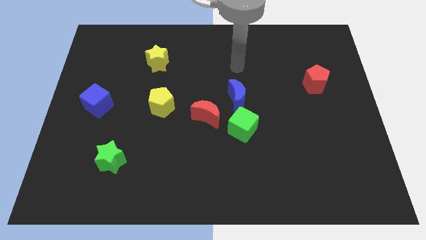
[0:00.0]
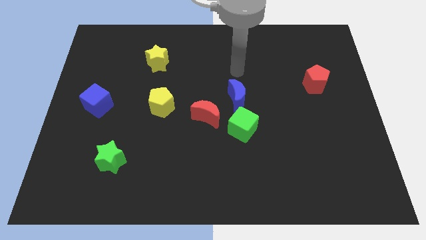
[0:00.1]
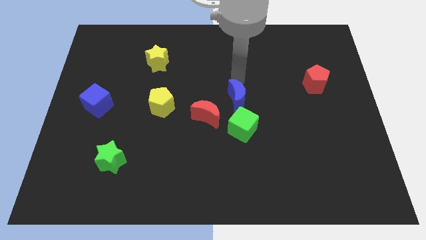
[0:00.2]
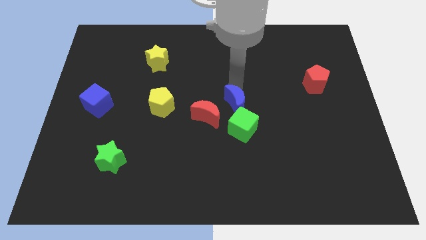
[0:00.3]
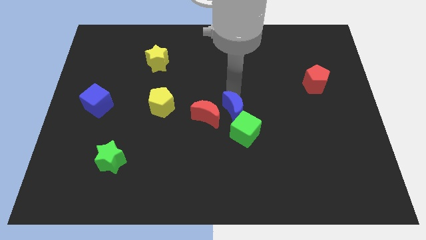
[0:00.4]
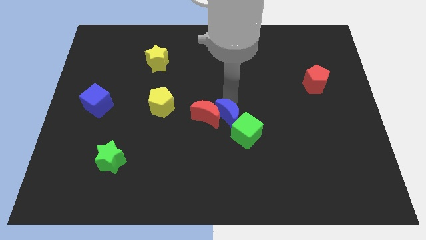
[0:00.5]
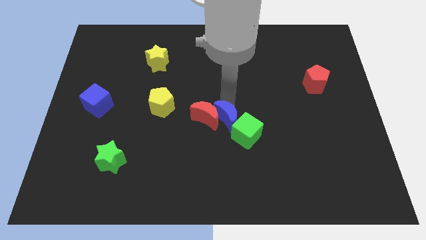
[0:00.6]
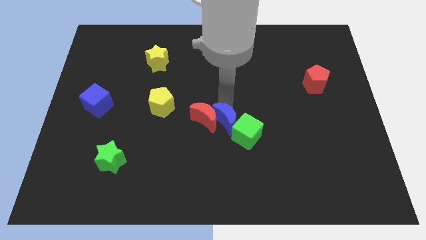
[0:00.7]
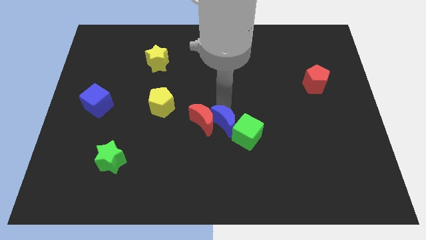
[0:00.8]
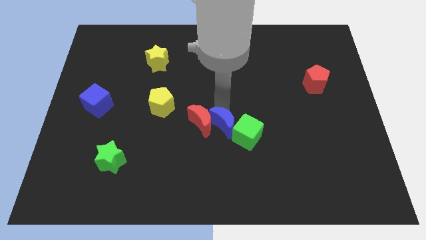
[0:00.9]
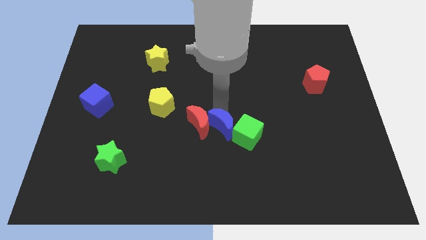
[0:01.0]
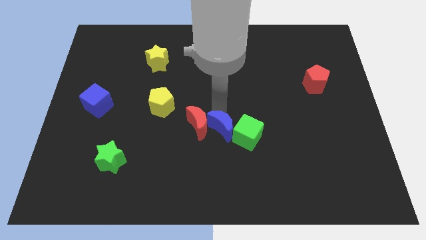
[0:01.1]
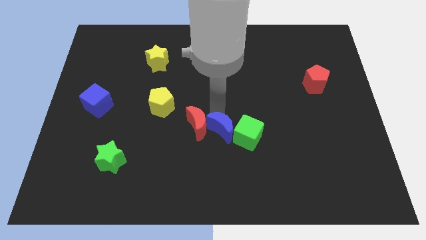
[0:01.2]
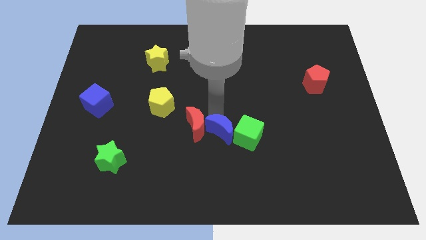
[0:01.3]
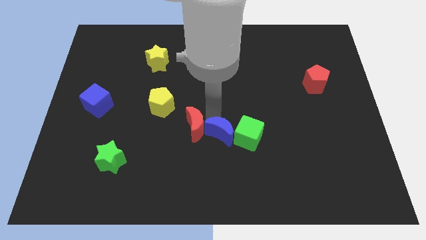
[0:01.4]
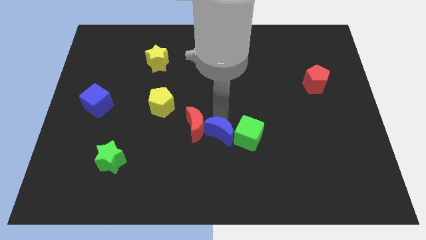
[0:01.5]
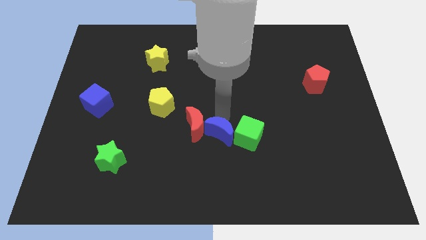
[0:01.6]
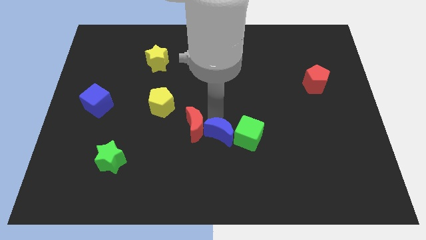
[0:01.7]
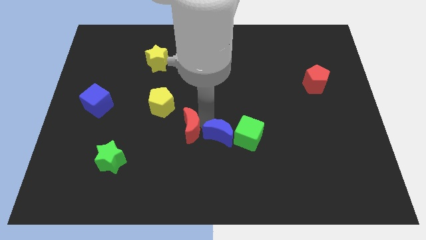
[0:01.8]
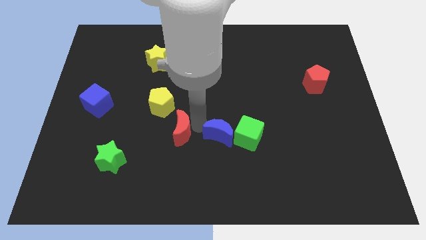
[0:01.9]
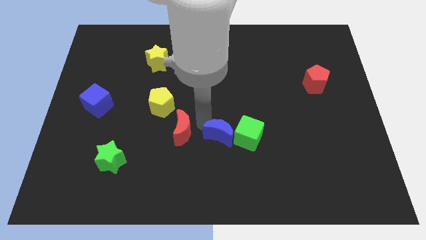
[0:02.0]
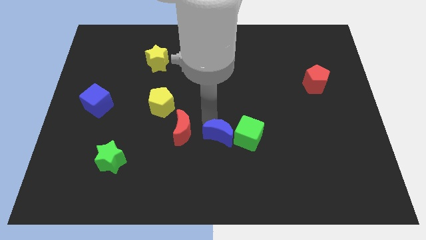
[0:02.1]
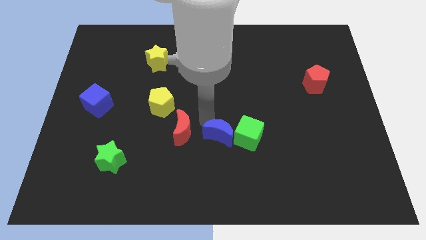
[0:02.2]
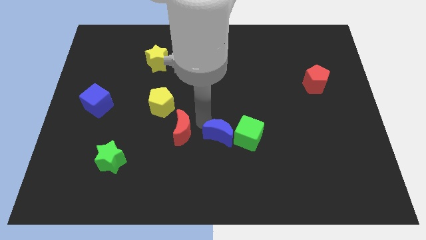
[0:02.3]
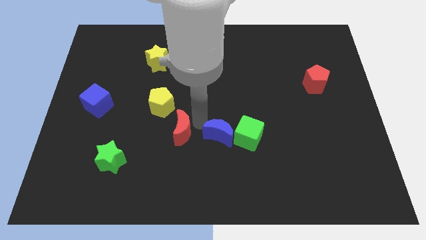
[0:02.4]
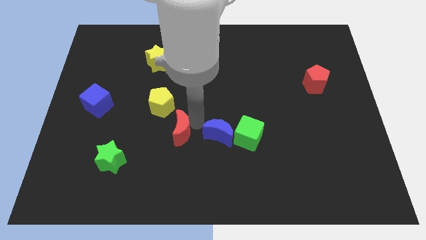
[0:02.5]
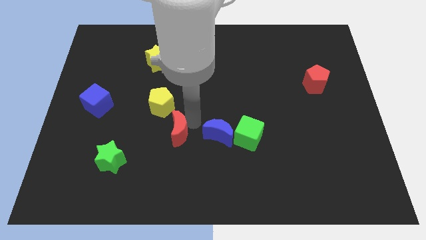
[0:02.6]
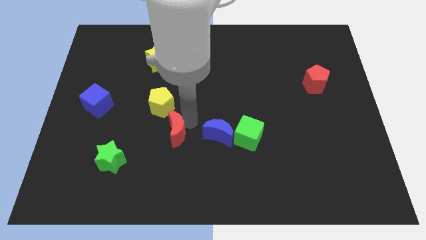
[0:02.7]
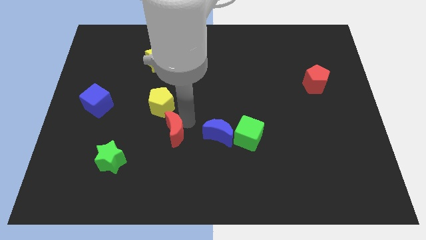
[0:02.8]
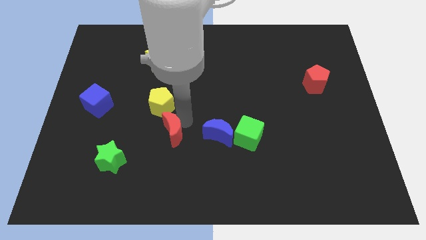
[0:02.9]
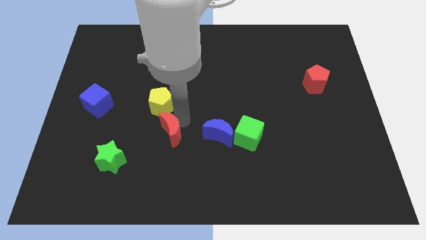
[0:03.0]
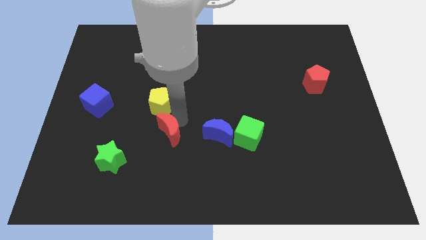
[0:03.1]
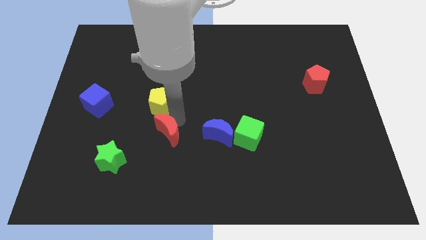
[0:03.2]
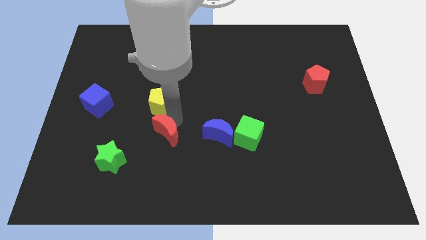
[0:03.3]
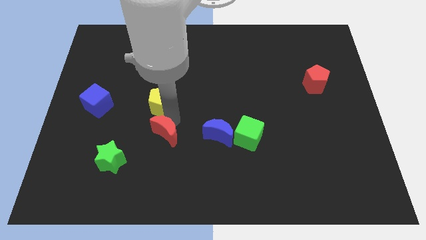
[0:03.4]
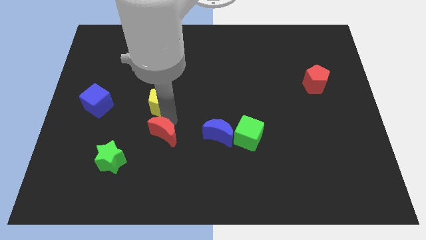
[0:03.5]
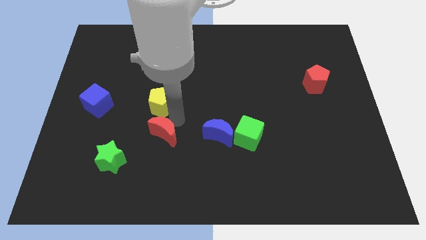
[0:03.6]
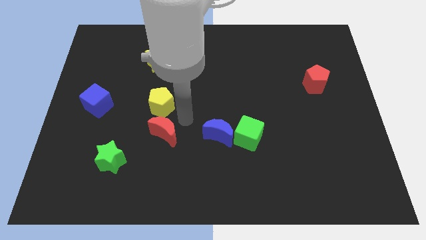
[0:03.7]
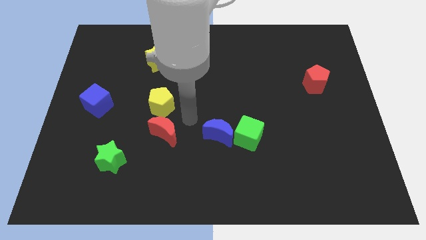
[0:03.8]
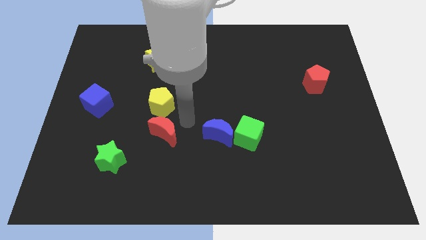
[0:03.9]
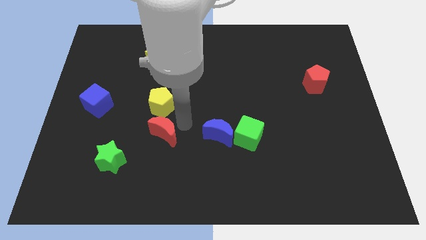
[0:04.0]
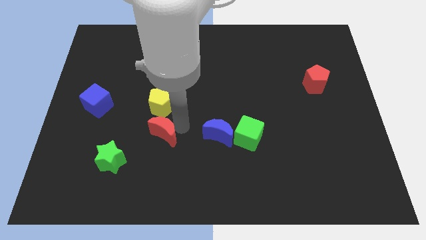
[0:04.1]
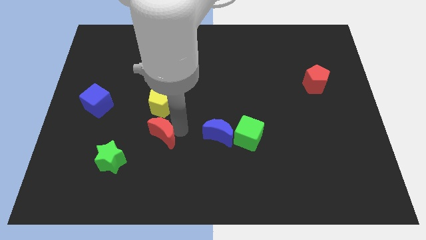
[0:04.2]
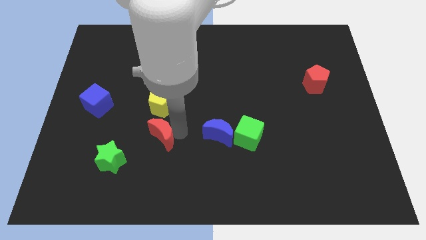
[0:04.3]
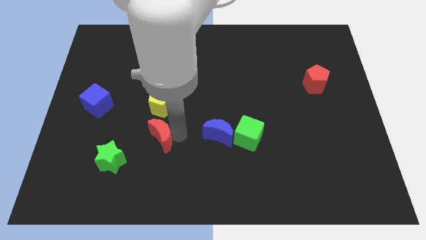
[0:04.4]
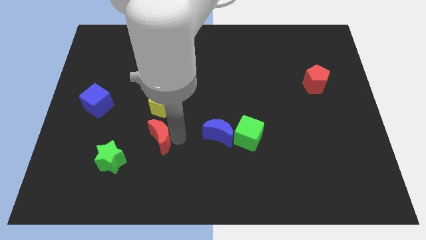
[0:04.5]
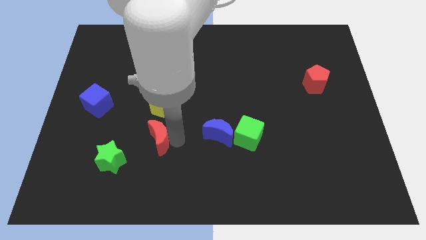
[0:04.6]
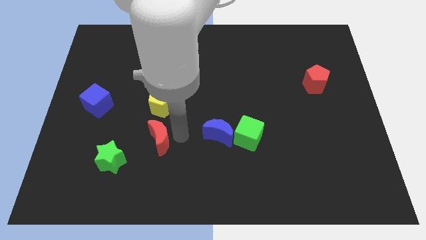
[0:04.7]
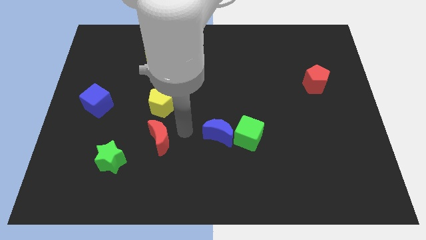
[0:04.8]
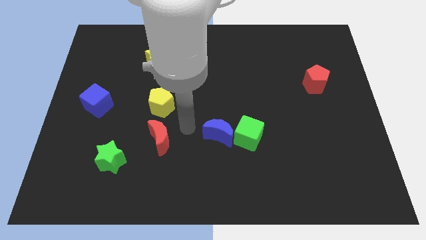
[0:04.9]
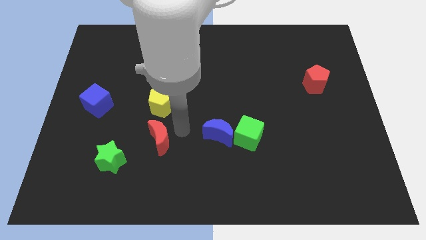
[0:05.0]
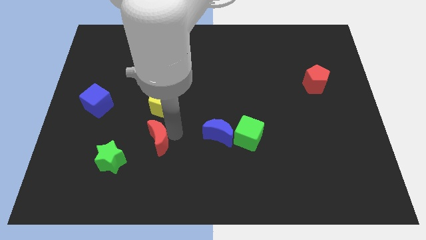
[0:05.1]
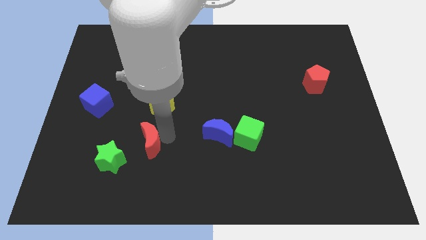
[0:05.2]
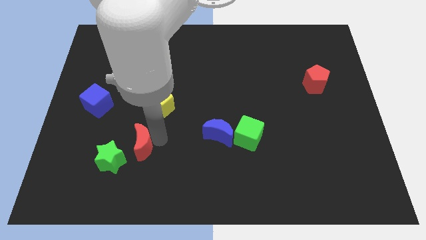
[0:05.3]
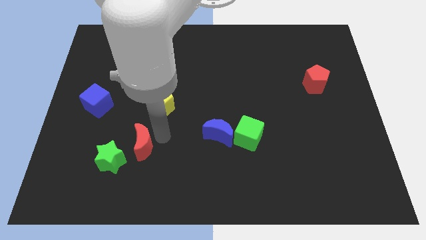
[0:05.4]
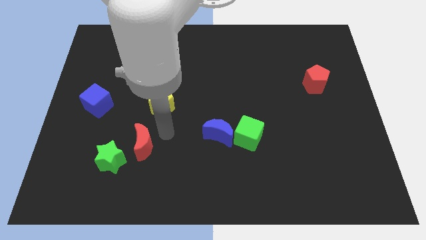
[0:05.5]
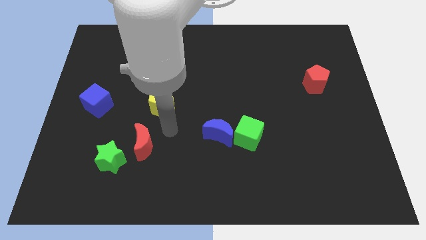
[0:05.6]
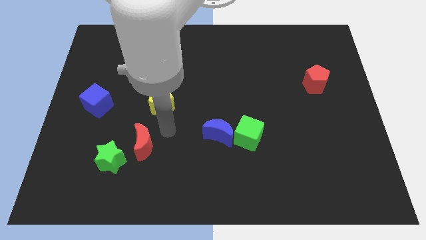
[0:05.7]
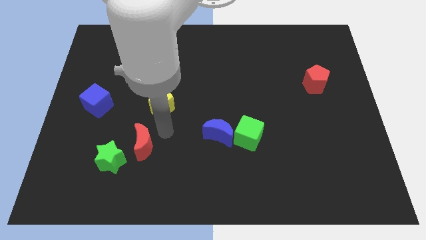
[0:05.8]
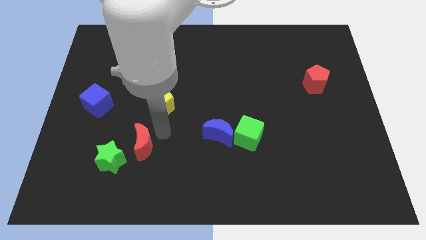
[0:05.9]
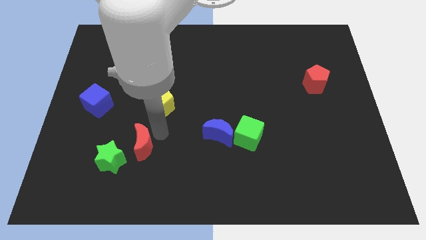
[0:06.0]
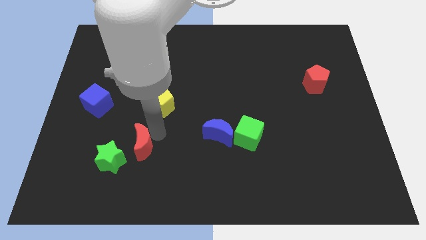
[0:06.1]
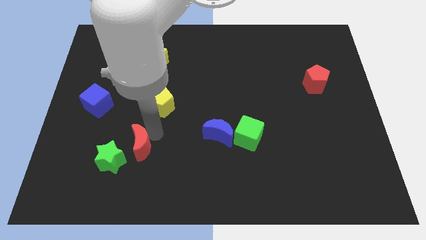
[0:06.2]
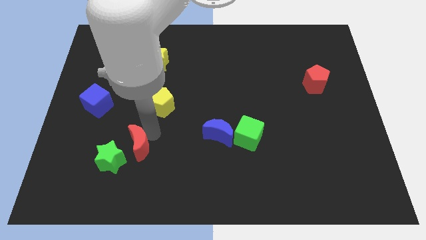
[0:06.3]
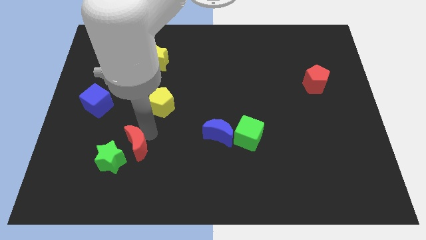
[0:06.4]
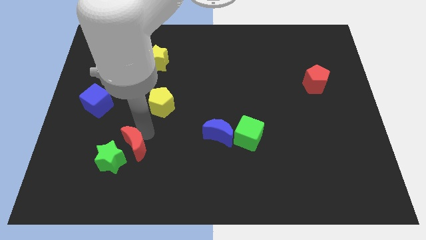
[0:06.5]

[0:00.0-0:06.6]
put the red moon close to the green star

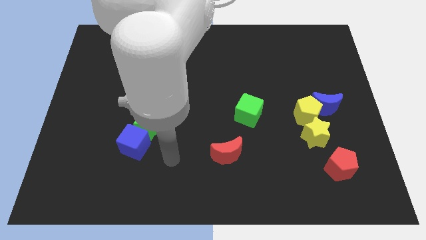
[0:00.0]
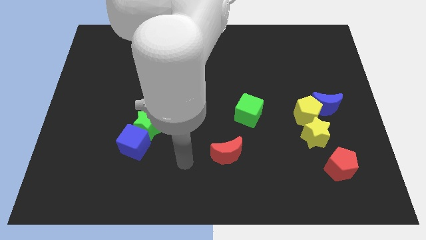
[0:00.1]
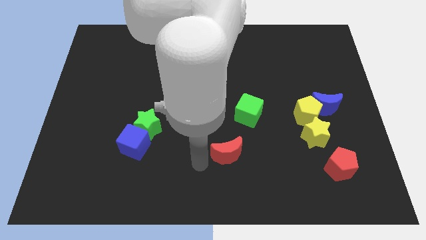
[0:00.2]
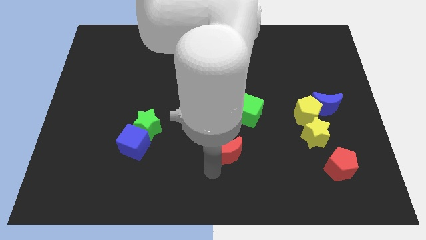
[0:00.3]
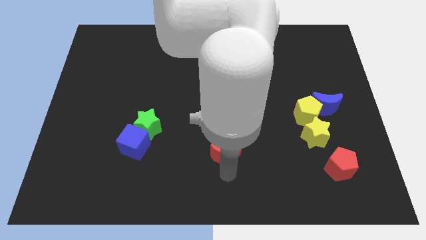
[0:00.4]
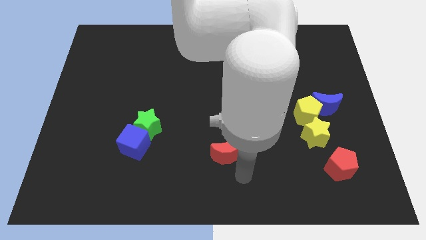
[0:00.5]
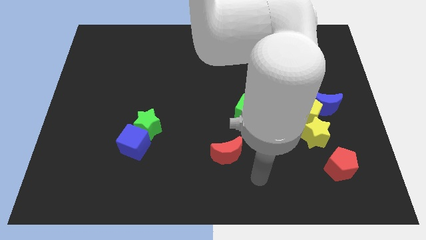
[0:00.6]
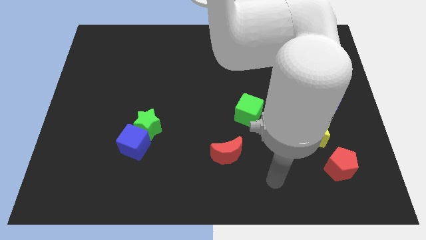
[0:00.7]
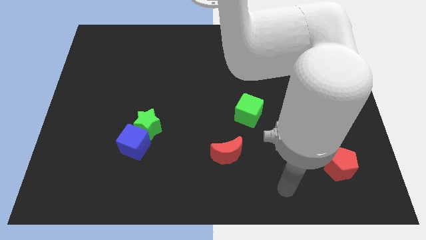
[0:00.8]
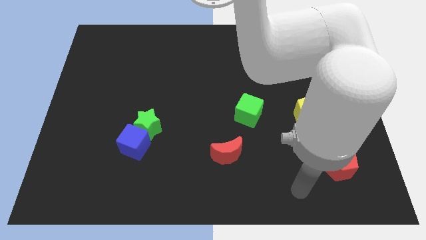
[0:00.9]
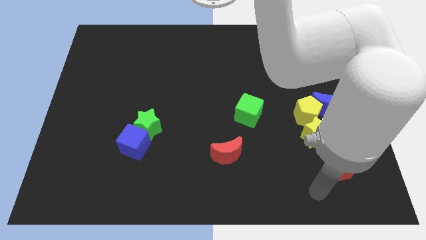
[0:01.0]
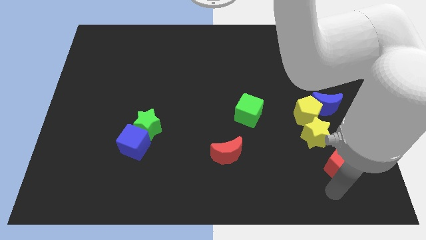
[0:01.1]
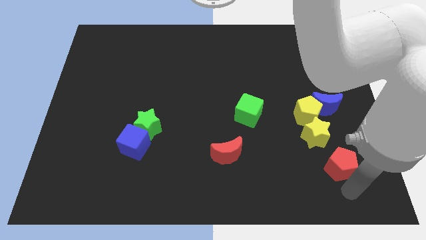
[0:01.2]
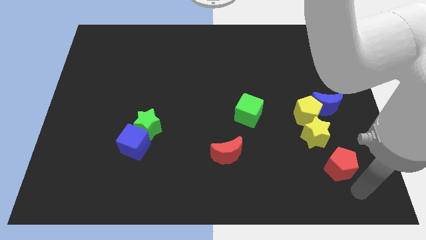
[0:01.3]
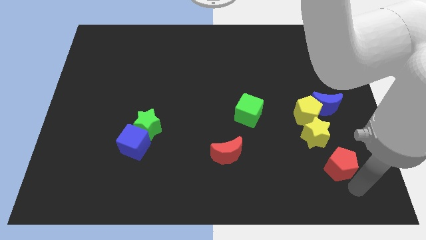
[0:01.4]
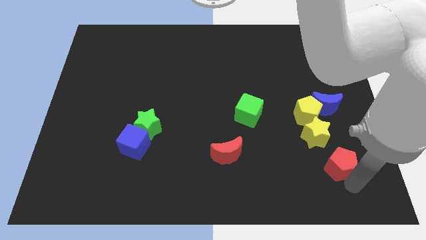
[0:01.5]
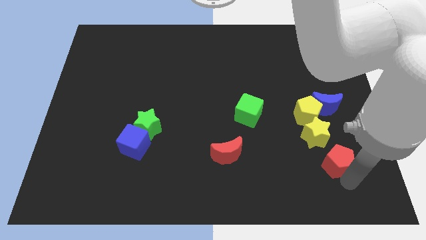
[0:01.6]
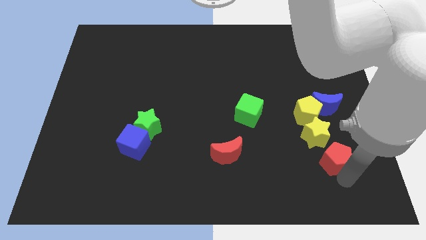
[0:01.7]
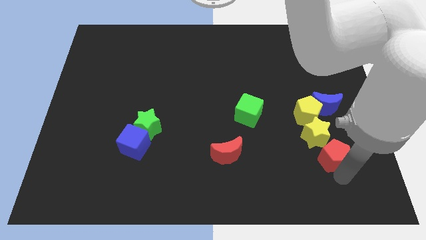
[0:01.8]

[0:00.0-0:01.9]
put the red pentagon to the yellow star
